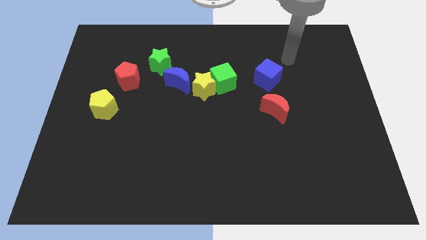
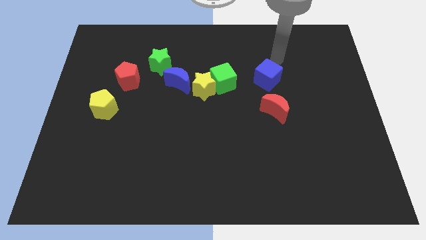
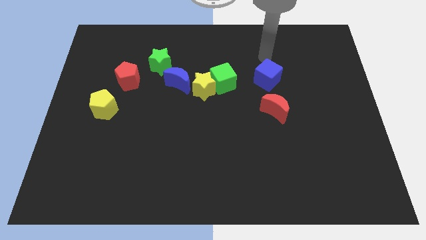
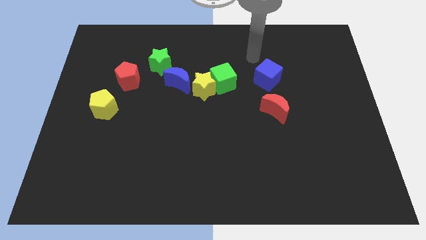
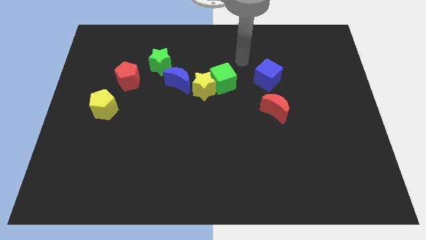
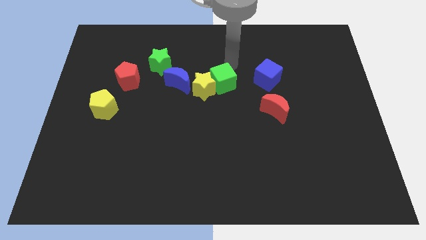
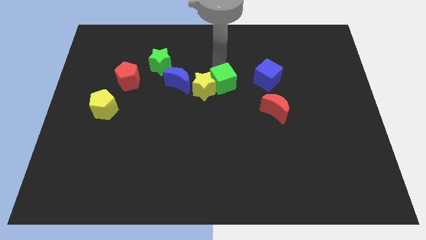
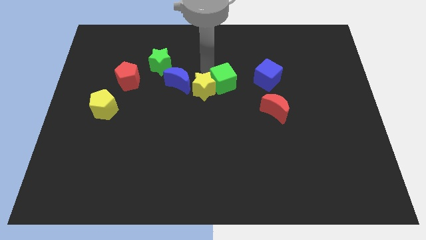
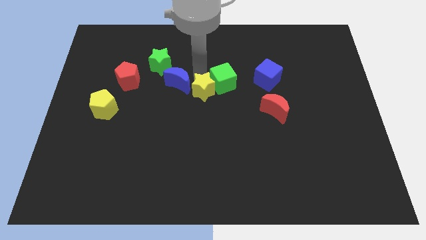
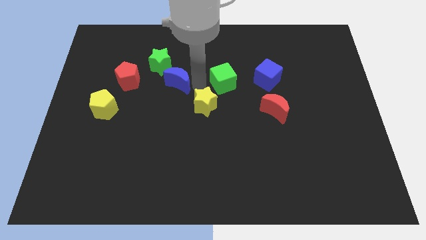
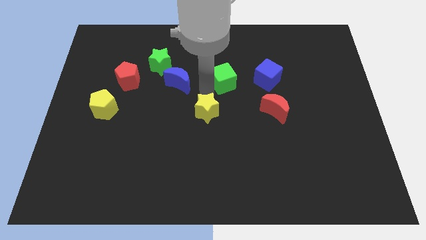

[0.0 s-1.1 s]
pull the green cube apart from the yellow star

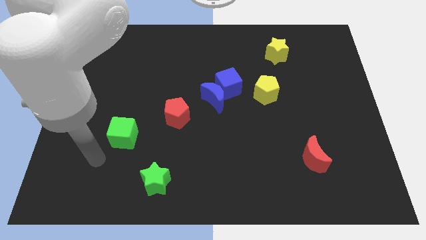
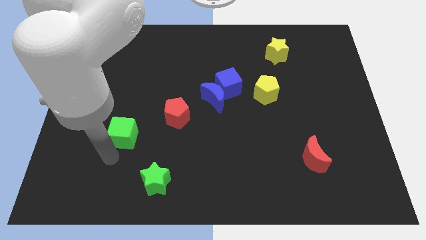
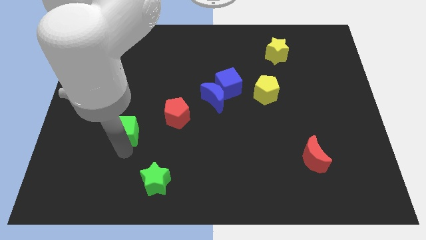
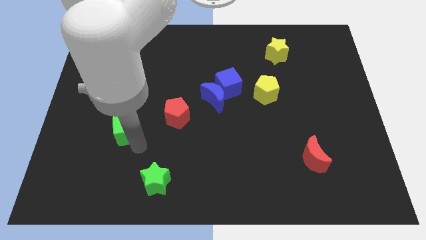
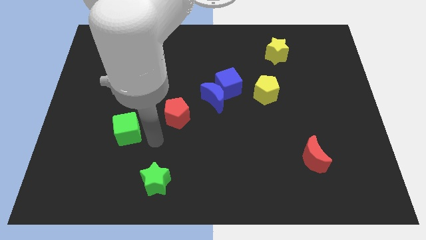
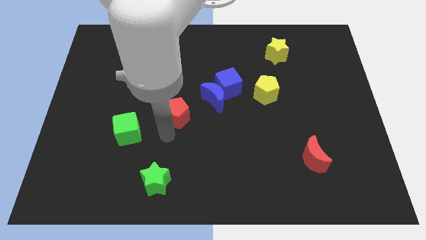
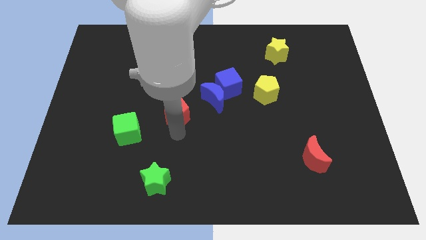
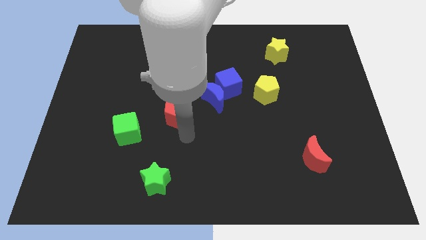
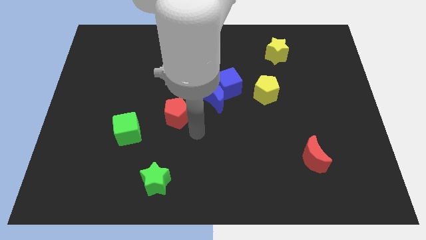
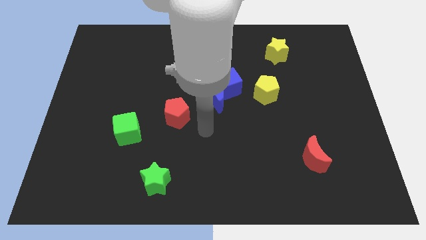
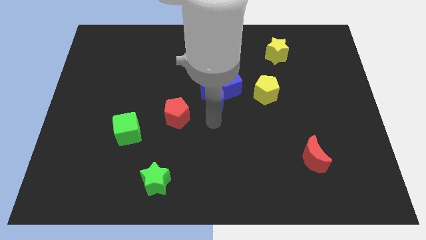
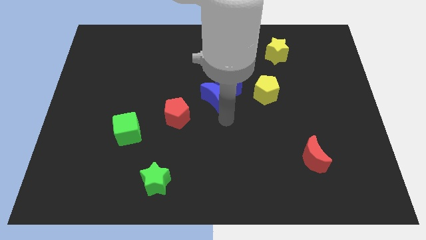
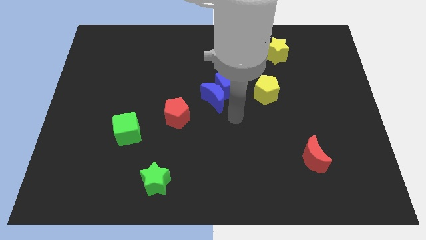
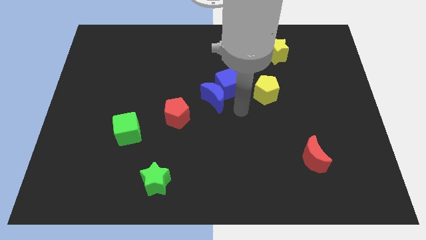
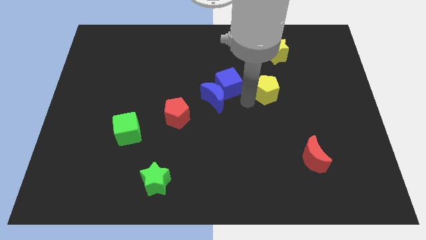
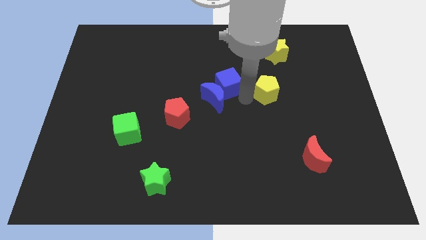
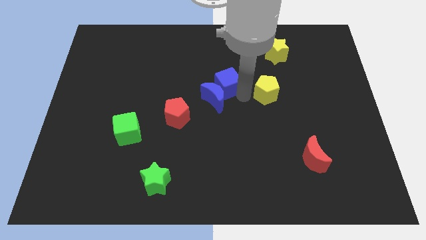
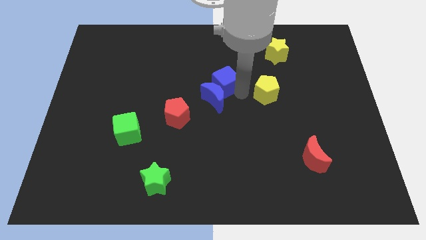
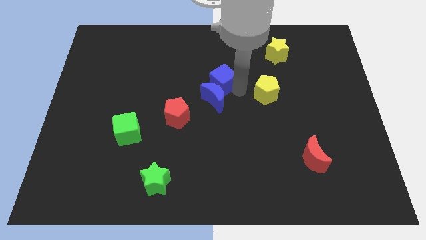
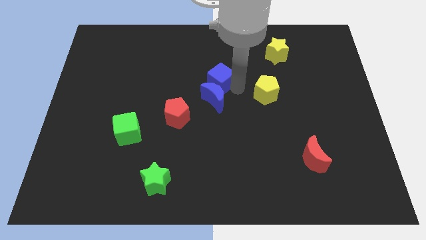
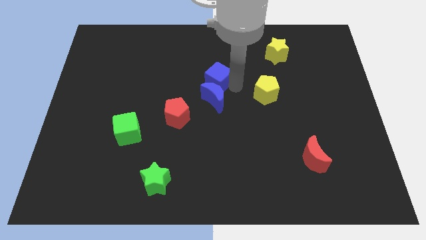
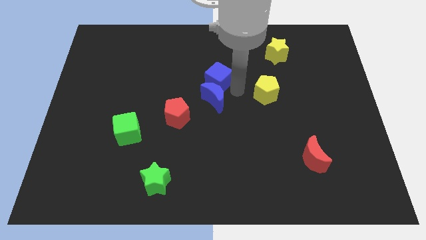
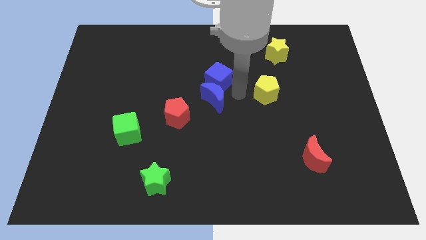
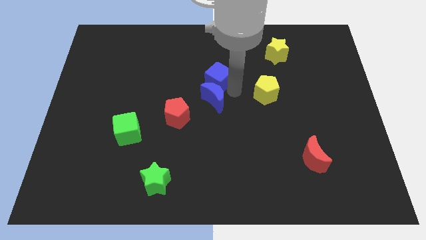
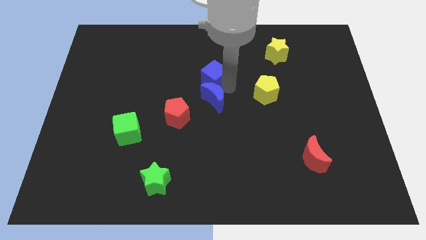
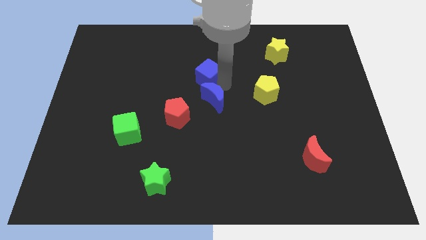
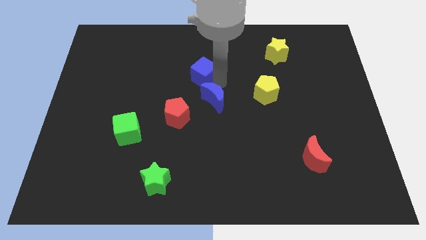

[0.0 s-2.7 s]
move the blue cube away from the blue moon and yellow pentagon

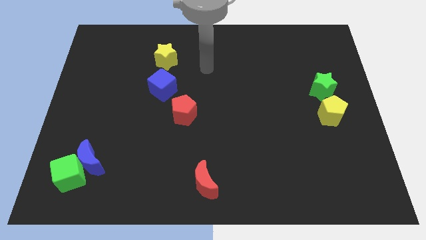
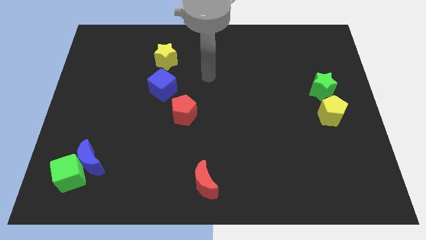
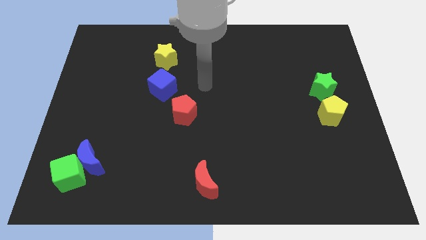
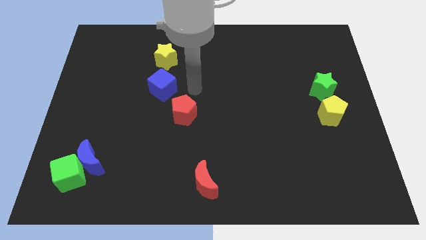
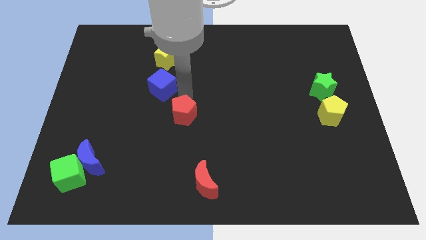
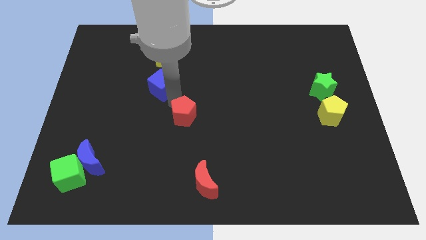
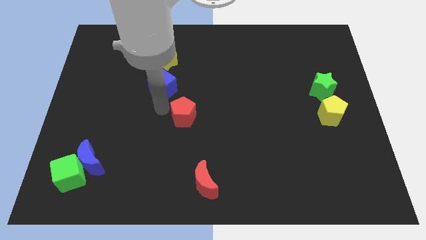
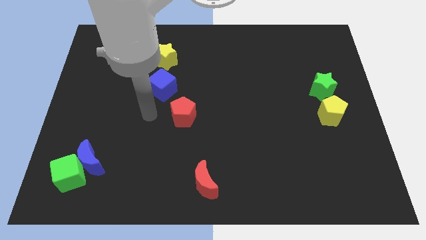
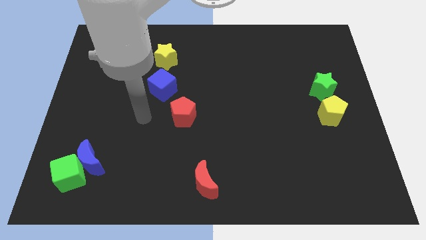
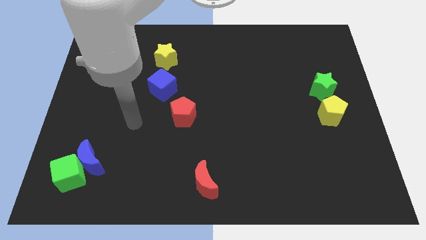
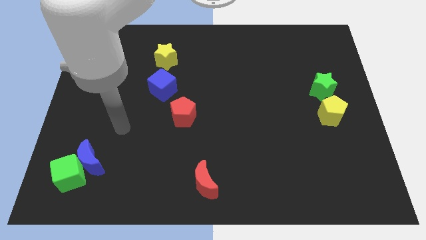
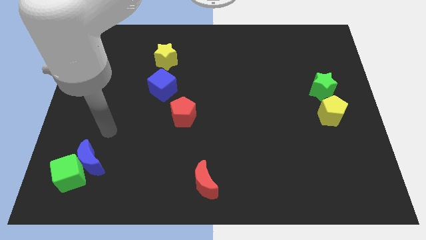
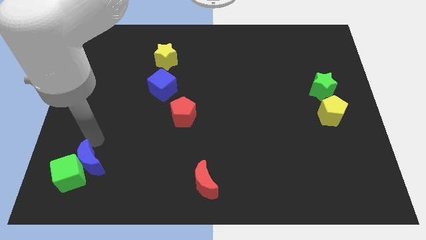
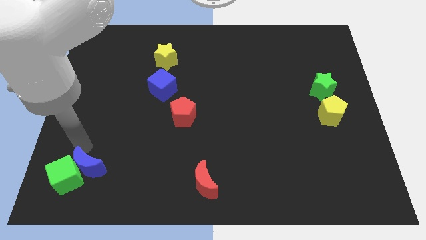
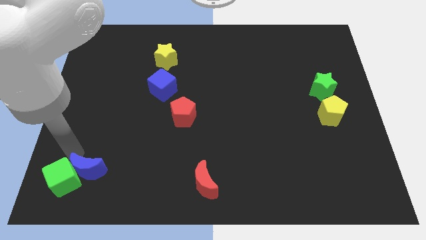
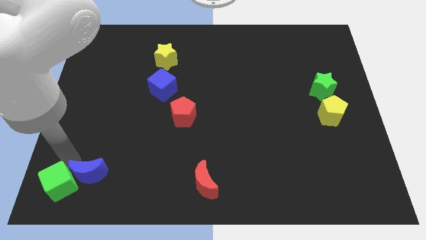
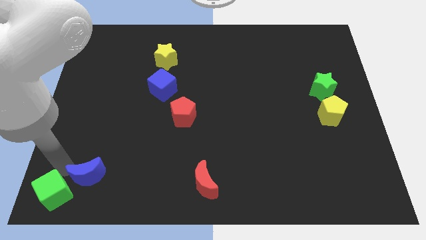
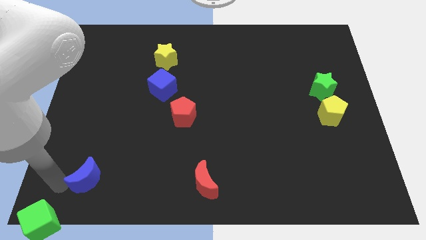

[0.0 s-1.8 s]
pull the blue moon apart from the green cube

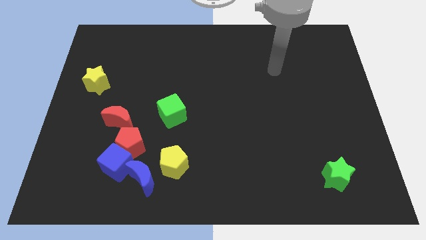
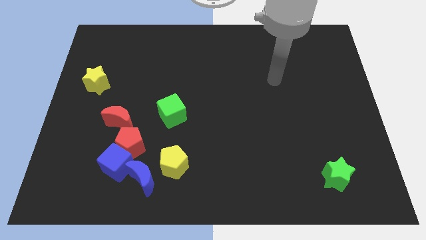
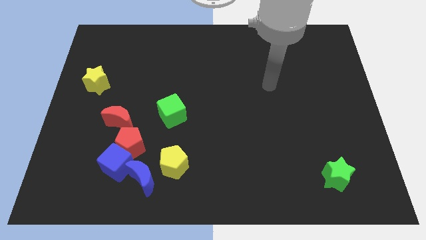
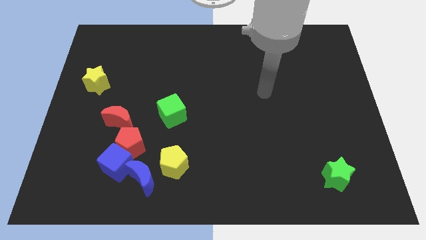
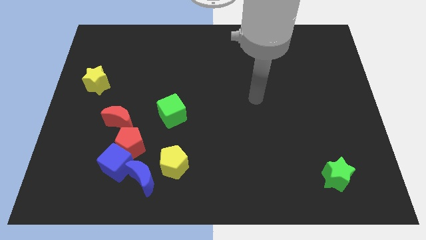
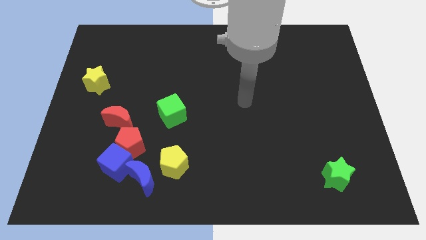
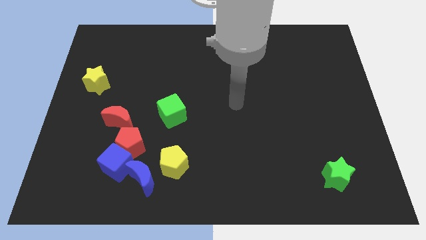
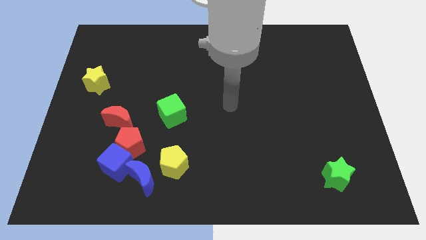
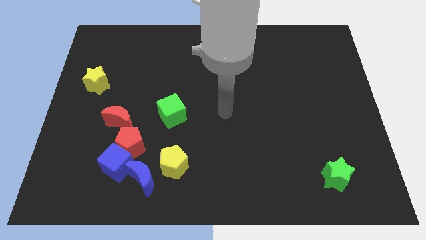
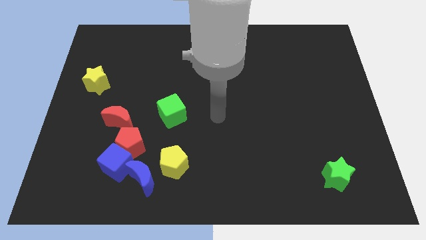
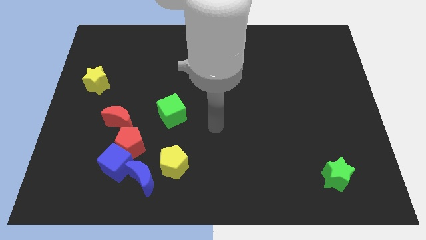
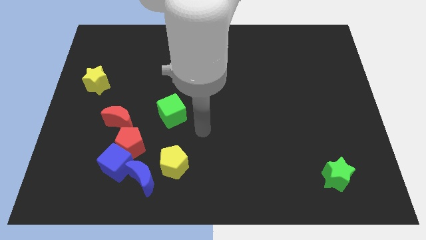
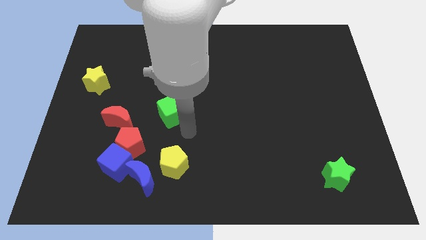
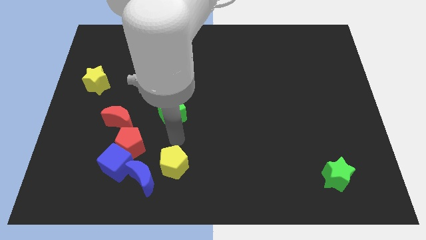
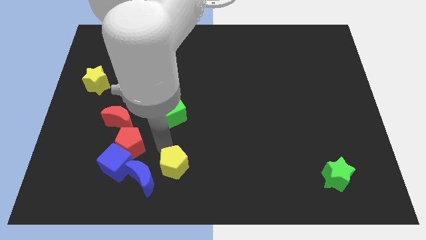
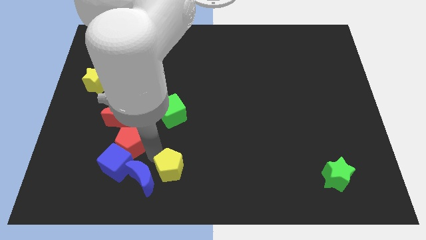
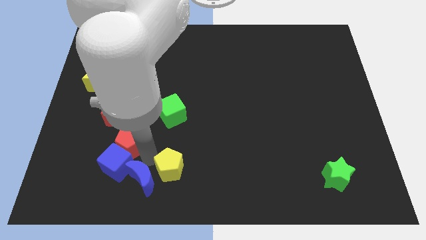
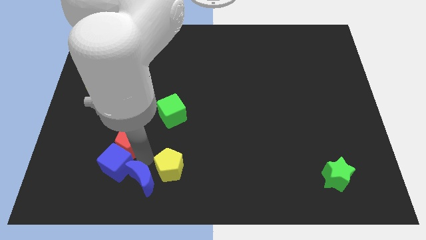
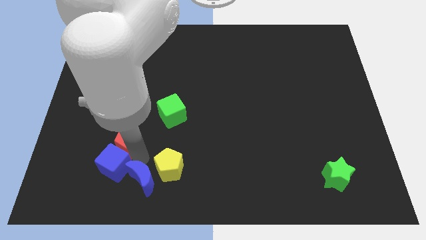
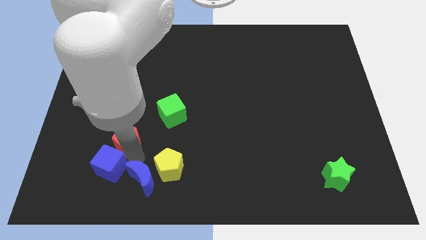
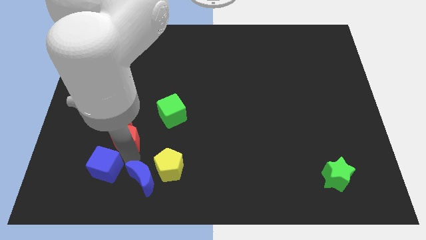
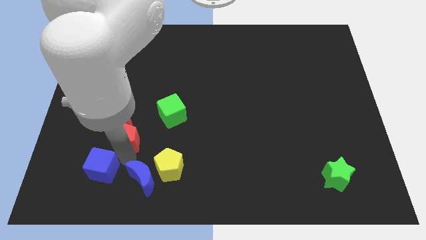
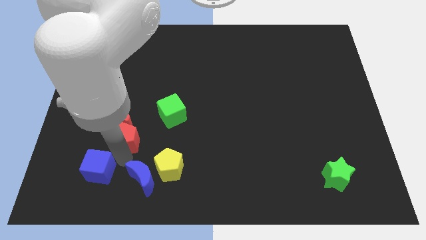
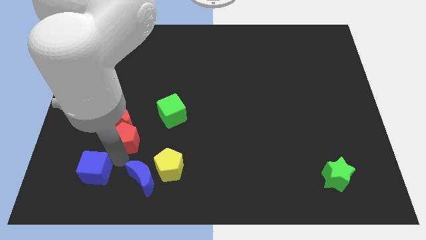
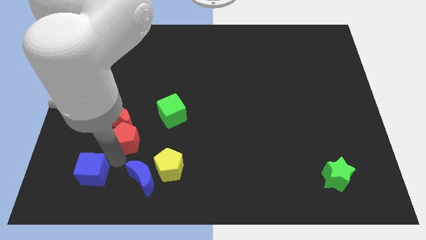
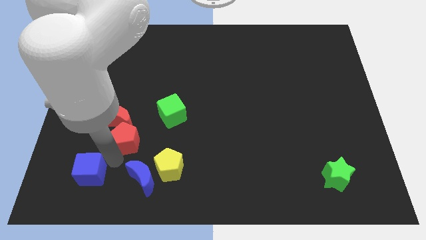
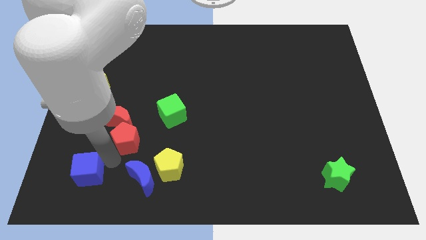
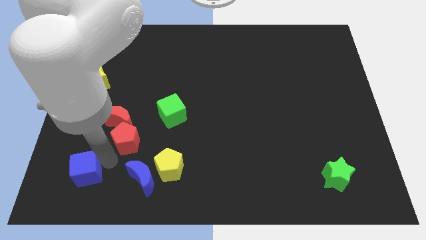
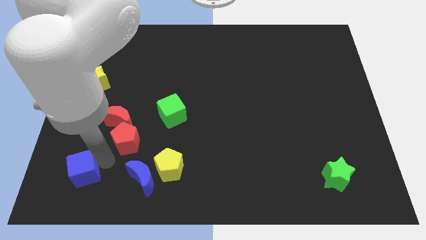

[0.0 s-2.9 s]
pull the blue cube apart from the red pentagon and blue moon

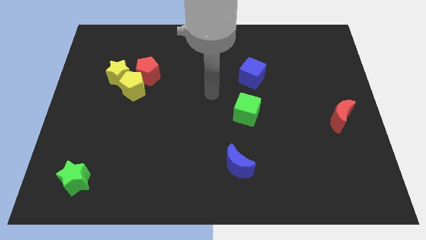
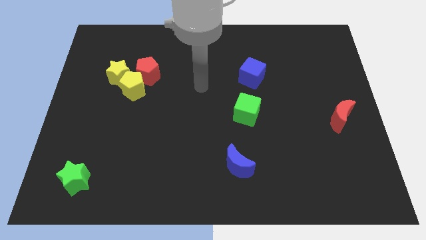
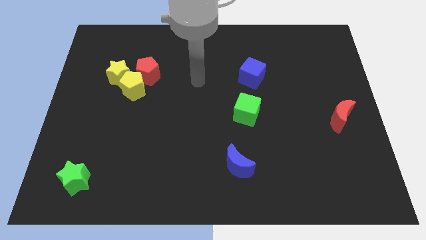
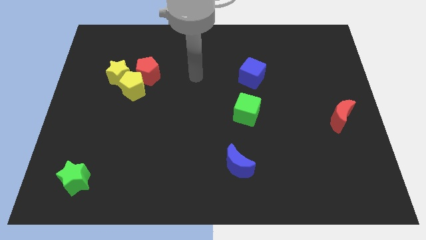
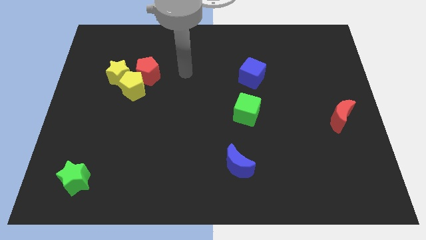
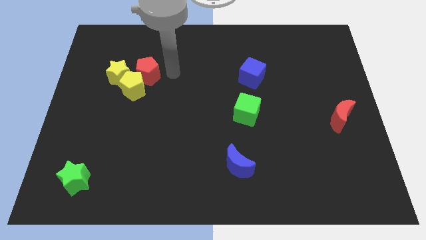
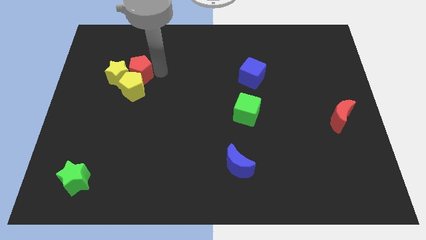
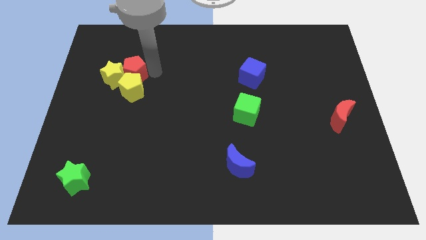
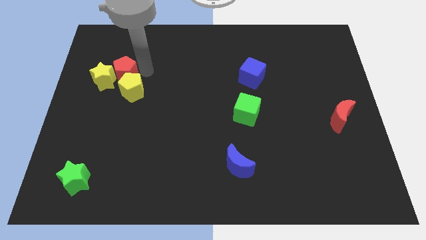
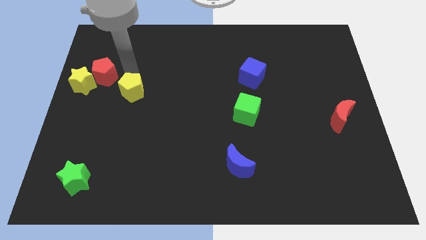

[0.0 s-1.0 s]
move the yellow pentagon away from the yellow star and red pentagon
